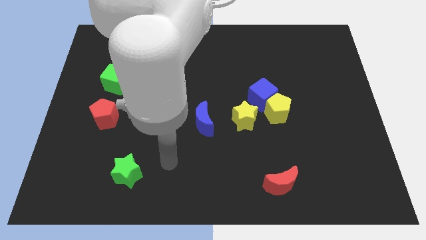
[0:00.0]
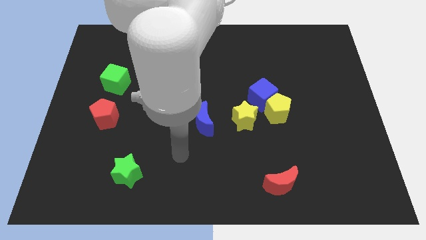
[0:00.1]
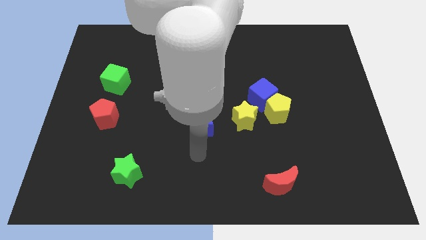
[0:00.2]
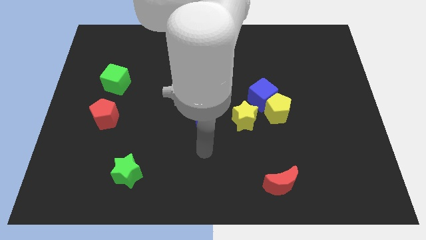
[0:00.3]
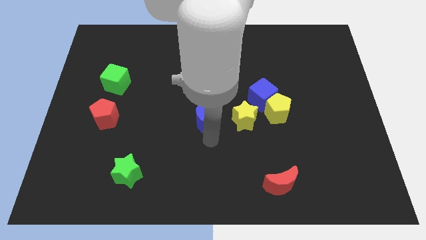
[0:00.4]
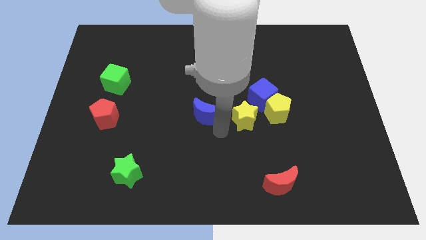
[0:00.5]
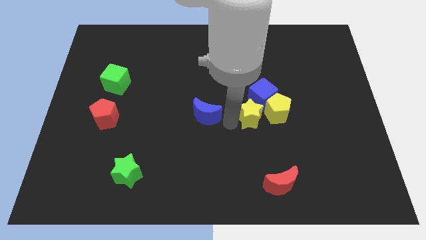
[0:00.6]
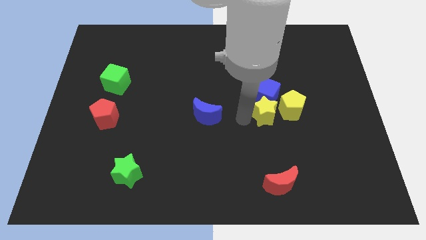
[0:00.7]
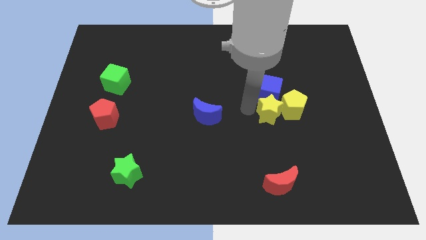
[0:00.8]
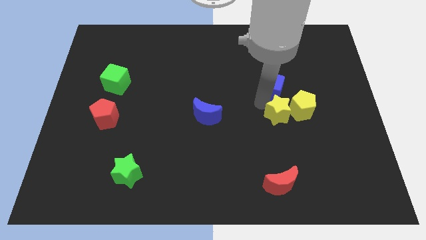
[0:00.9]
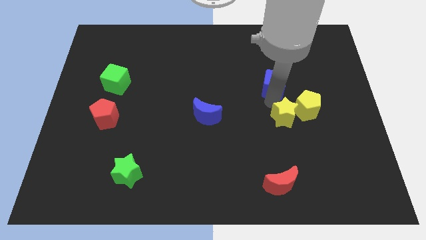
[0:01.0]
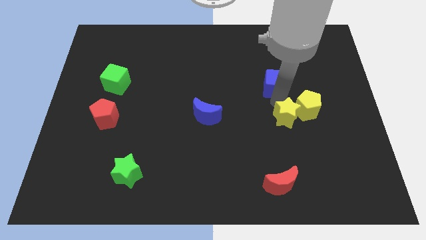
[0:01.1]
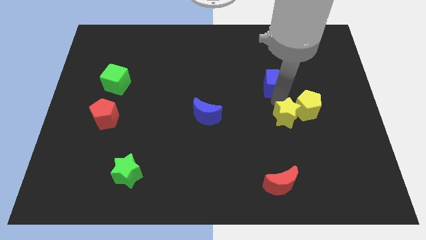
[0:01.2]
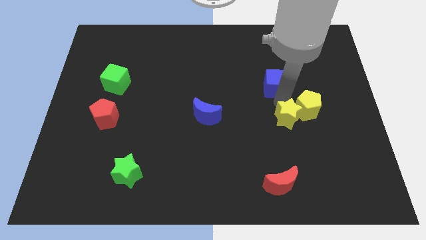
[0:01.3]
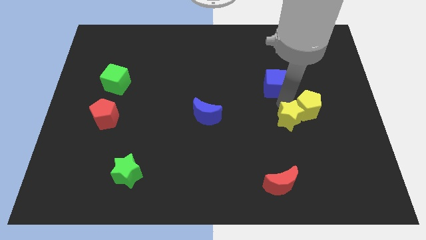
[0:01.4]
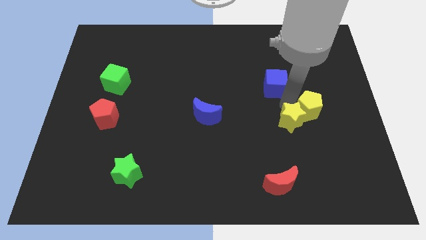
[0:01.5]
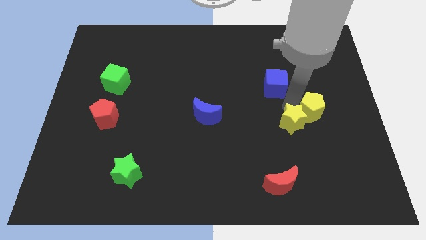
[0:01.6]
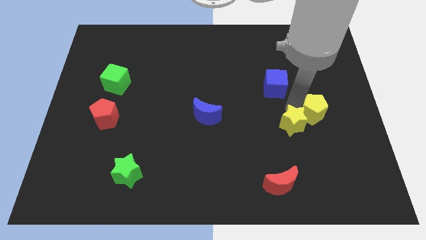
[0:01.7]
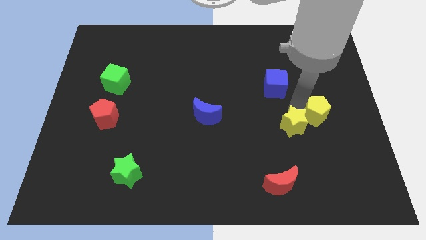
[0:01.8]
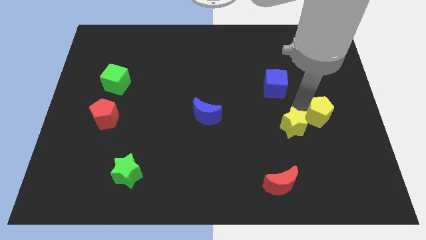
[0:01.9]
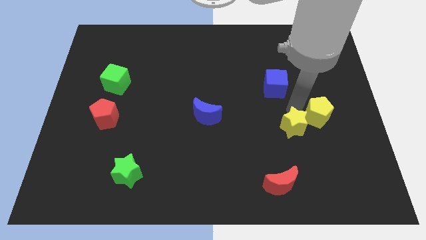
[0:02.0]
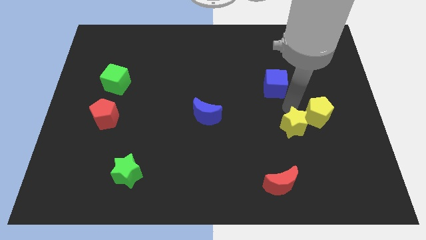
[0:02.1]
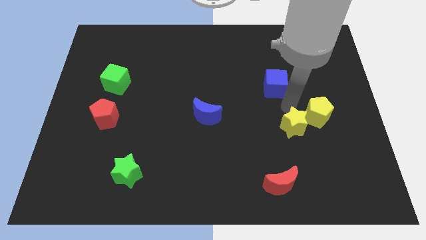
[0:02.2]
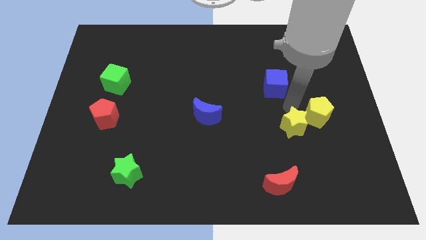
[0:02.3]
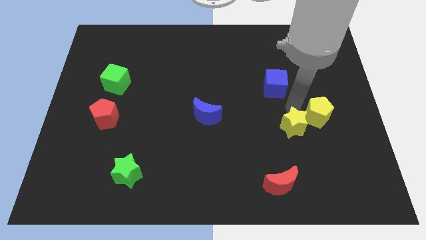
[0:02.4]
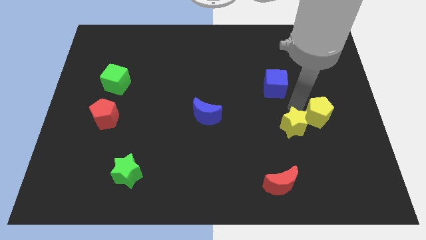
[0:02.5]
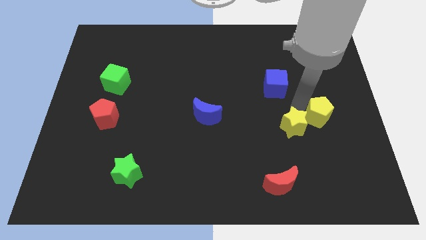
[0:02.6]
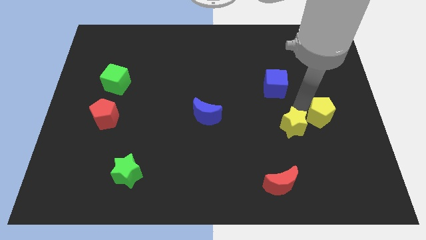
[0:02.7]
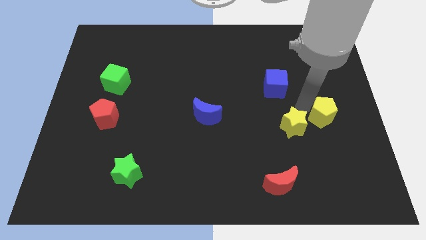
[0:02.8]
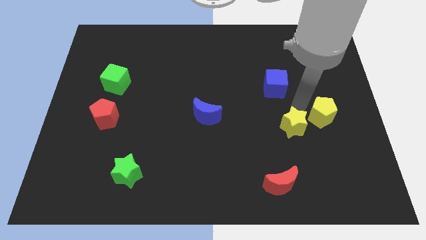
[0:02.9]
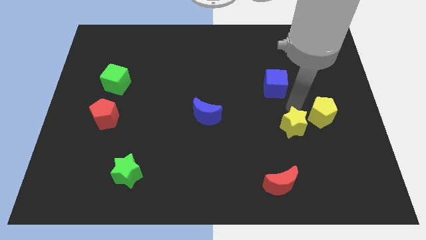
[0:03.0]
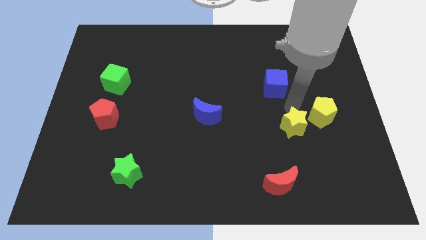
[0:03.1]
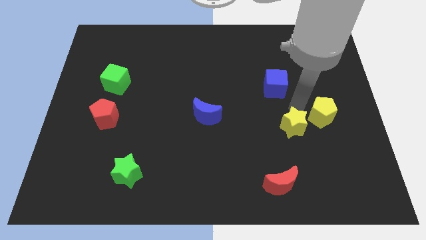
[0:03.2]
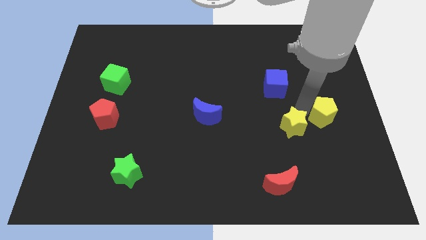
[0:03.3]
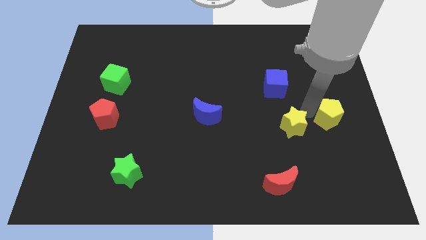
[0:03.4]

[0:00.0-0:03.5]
separate the yellow pentagon from the blue cube and yellow star

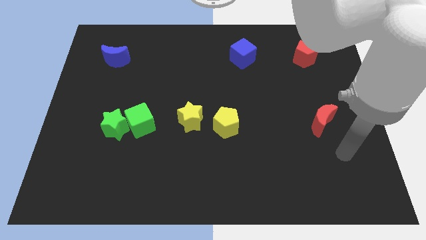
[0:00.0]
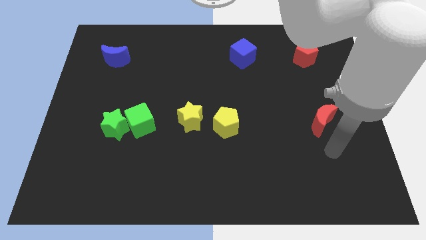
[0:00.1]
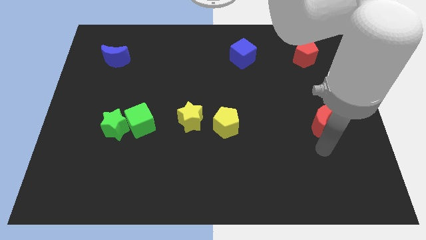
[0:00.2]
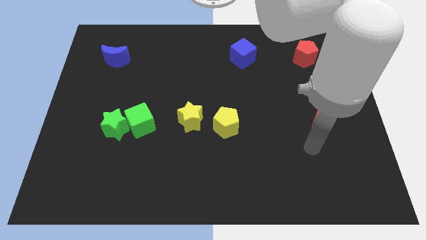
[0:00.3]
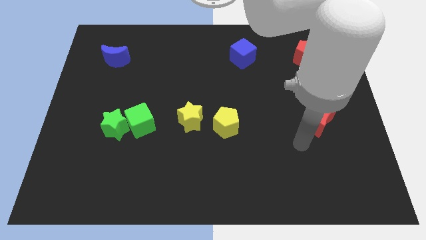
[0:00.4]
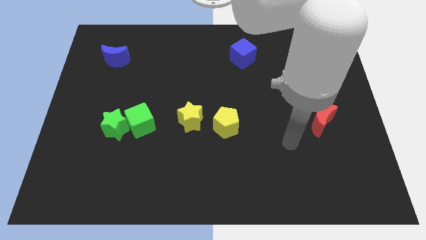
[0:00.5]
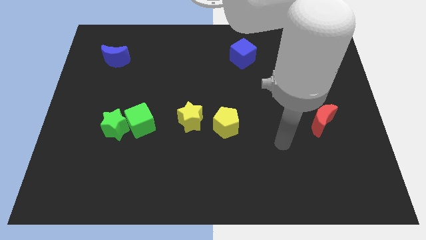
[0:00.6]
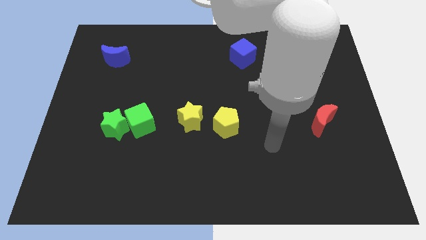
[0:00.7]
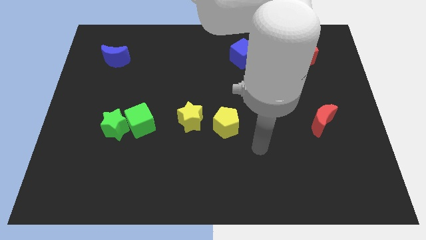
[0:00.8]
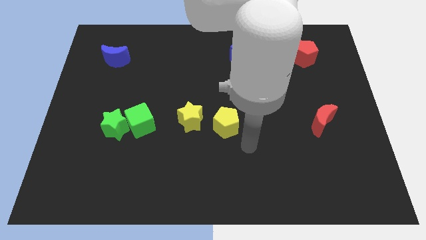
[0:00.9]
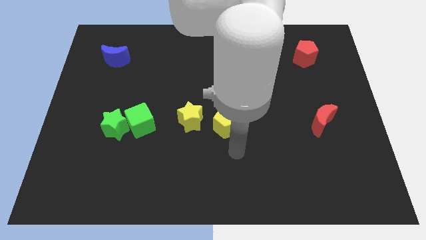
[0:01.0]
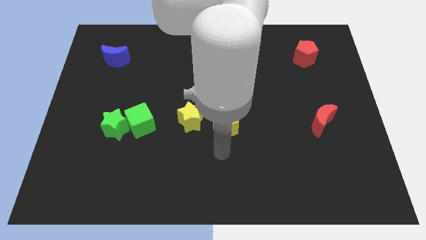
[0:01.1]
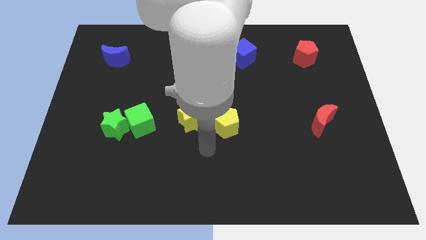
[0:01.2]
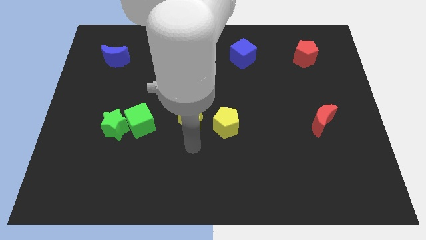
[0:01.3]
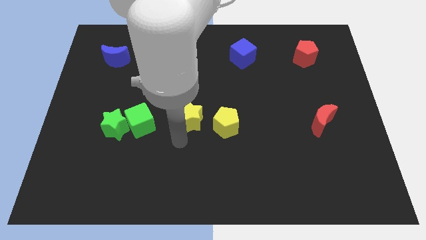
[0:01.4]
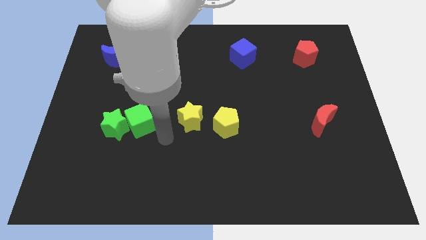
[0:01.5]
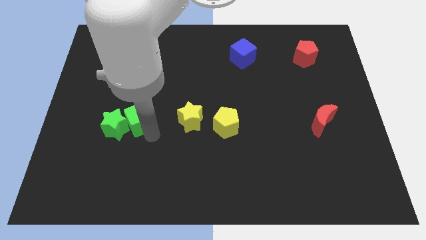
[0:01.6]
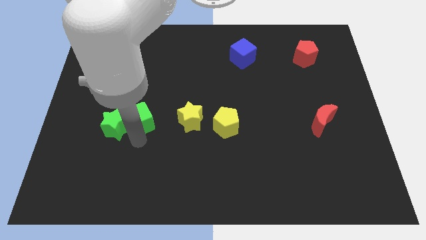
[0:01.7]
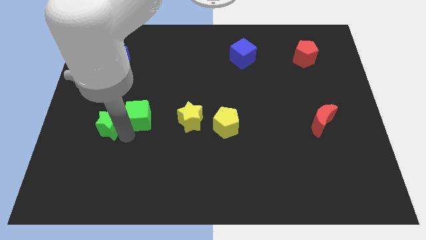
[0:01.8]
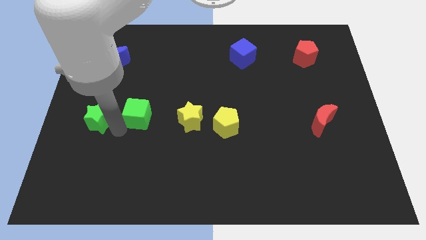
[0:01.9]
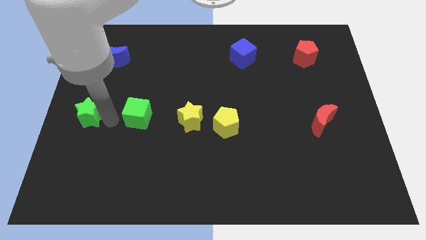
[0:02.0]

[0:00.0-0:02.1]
separate the green cube from the green star

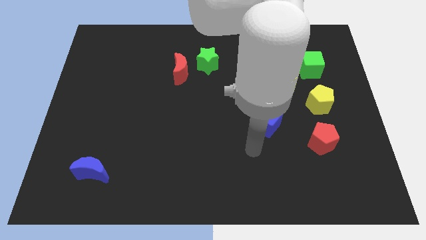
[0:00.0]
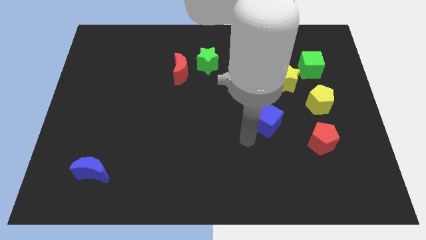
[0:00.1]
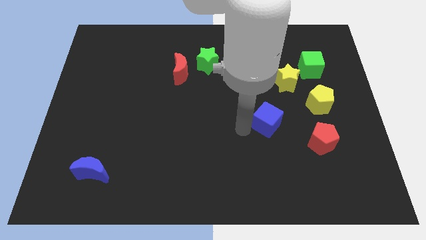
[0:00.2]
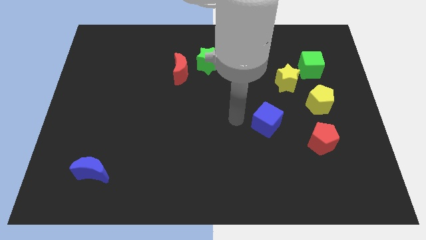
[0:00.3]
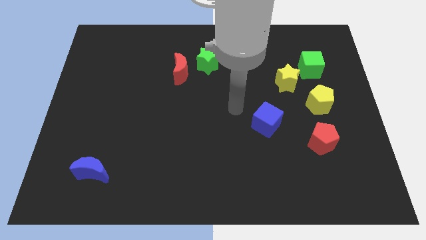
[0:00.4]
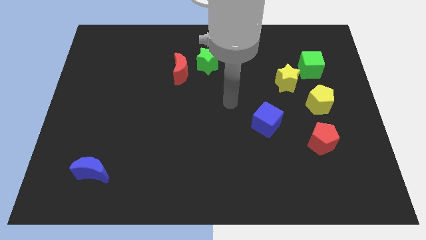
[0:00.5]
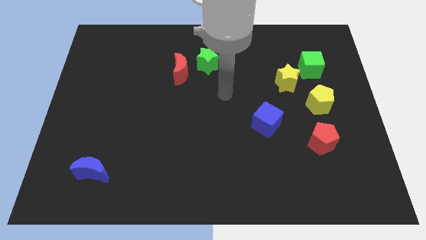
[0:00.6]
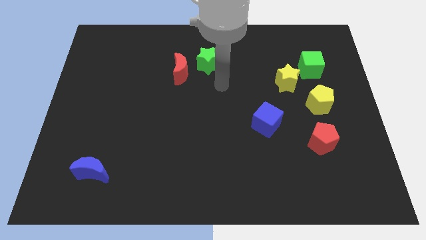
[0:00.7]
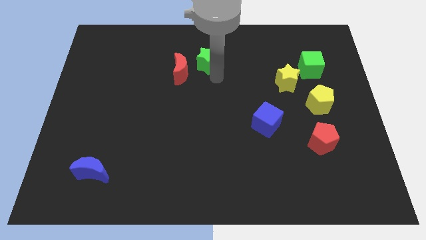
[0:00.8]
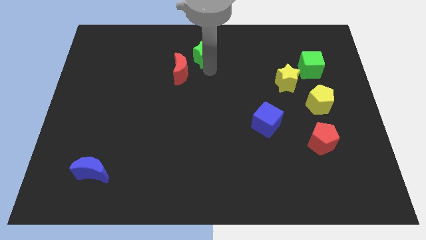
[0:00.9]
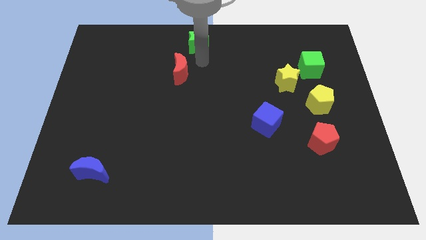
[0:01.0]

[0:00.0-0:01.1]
pull the red moon apart from the green star

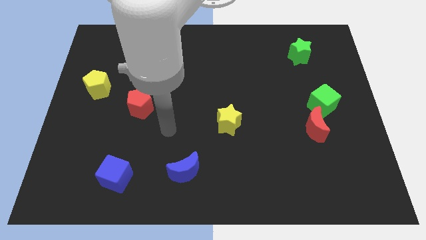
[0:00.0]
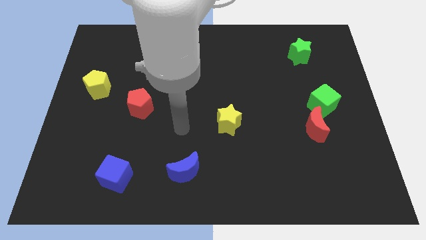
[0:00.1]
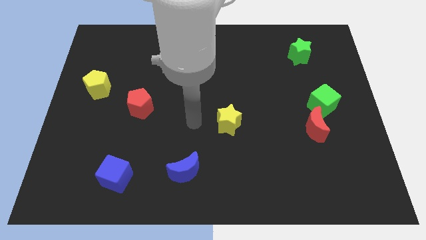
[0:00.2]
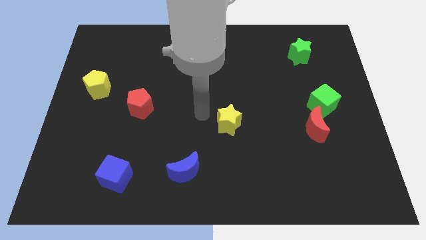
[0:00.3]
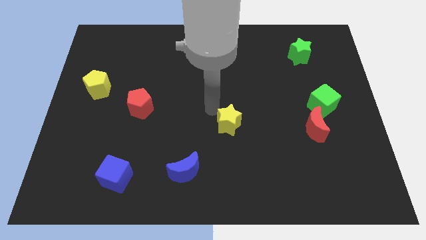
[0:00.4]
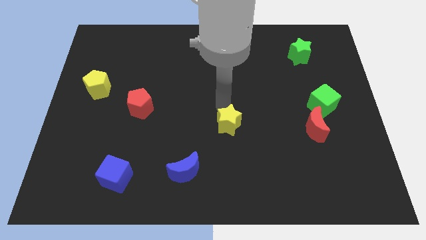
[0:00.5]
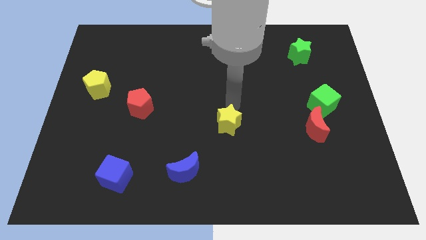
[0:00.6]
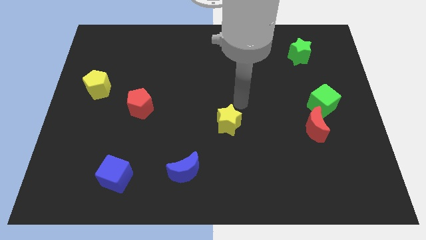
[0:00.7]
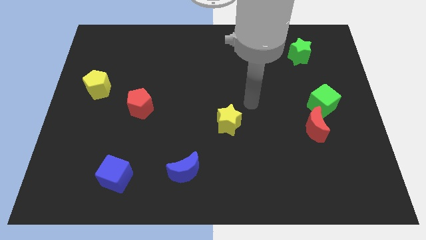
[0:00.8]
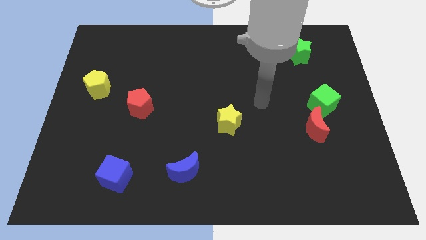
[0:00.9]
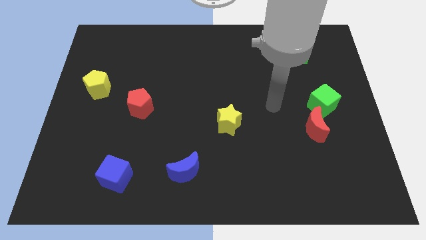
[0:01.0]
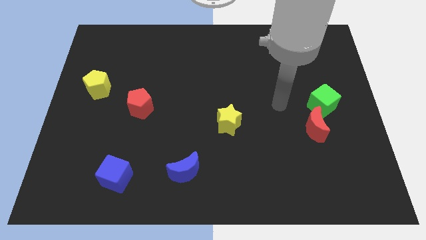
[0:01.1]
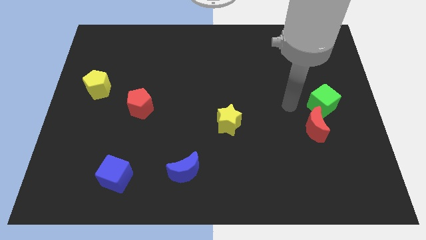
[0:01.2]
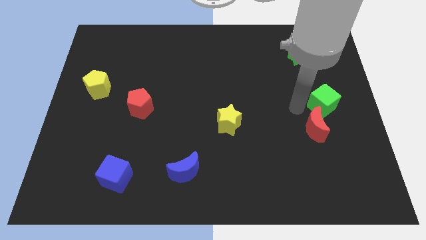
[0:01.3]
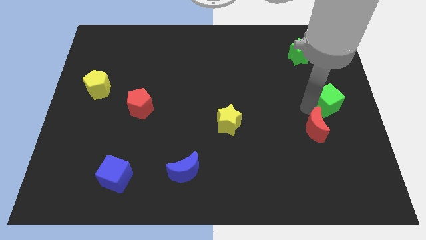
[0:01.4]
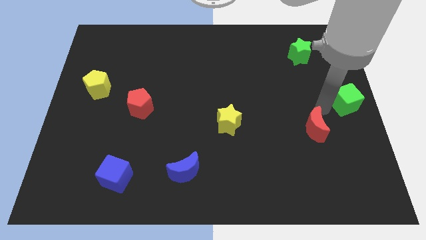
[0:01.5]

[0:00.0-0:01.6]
pull the red moon apart from the green cube

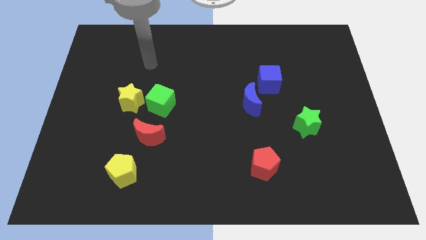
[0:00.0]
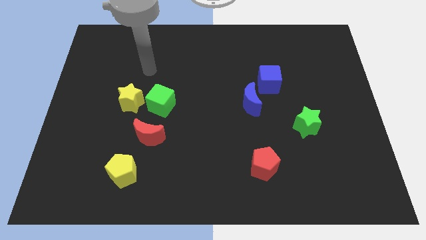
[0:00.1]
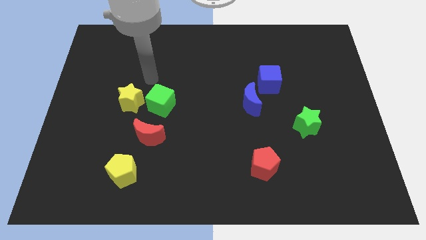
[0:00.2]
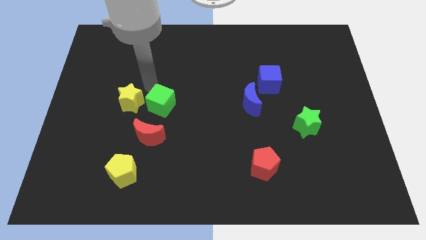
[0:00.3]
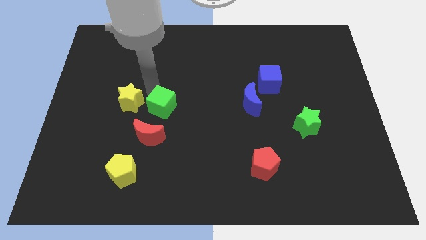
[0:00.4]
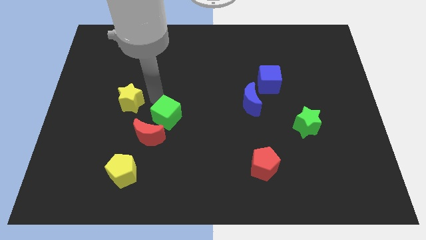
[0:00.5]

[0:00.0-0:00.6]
separate the yellow star from the green cube

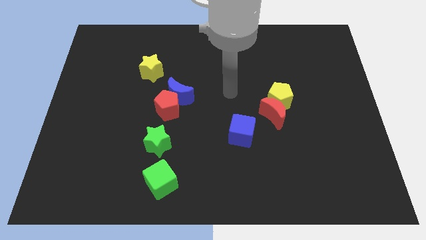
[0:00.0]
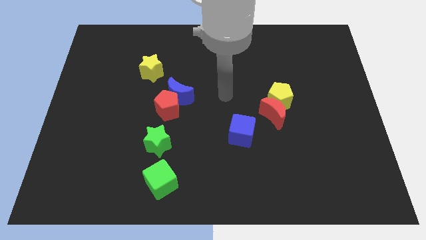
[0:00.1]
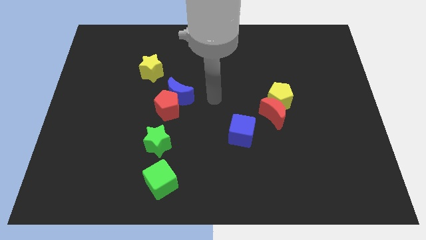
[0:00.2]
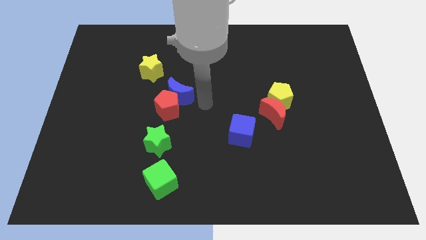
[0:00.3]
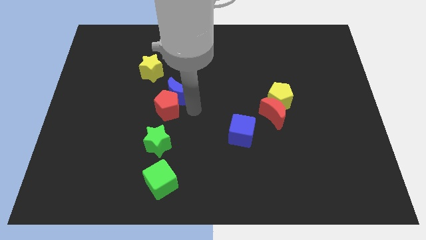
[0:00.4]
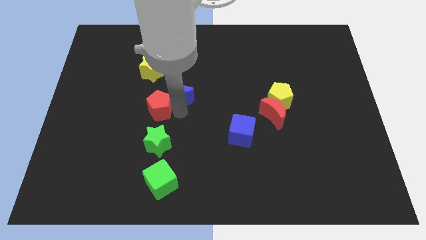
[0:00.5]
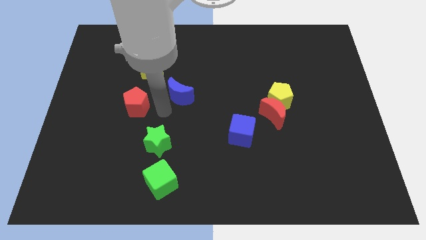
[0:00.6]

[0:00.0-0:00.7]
pull the blue moon apart from the red pentagon
